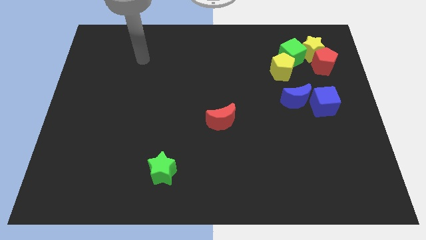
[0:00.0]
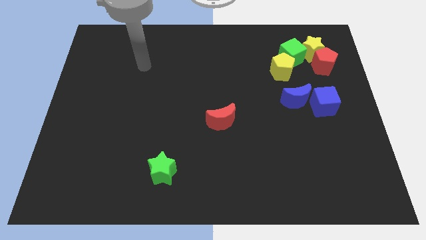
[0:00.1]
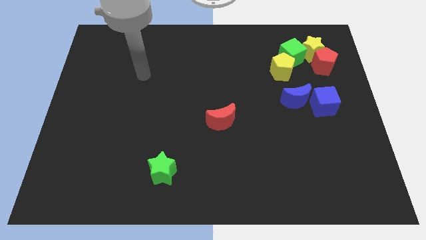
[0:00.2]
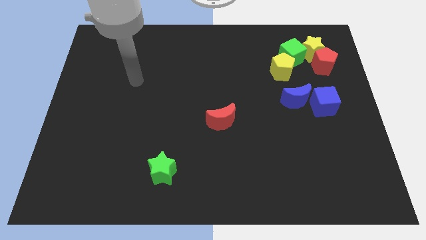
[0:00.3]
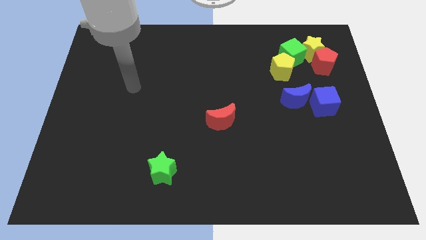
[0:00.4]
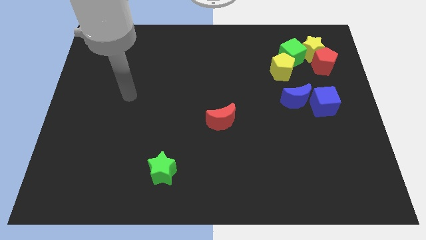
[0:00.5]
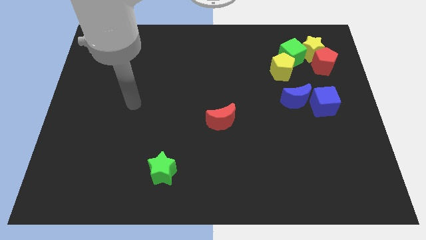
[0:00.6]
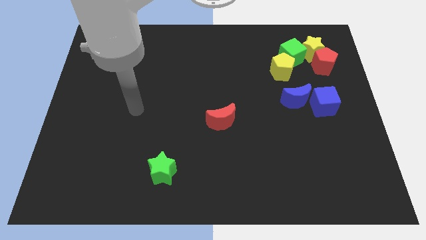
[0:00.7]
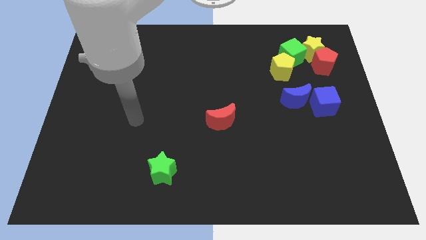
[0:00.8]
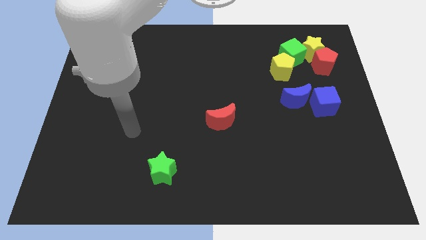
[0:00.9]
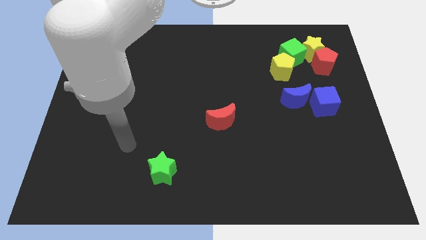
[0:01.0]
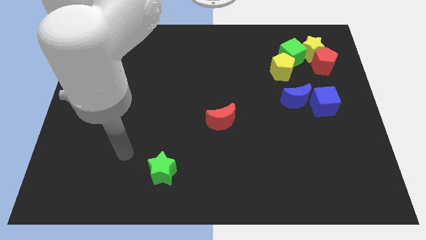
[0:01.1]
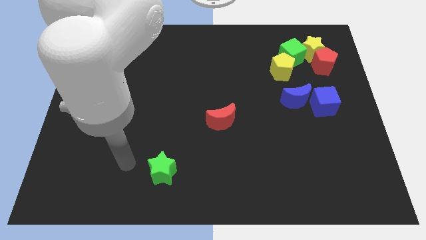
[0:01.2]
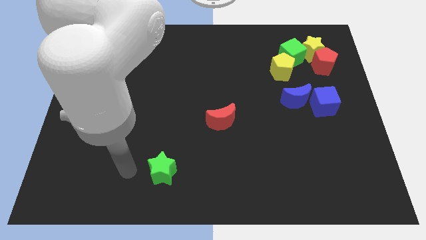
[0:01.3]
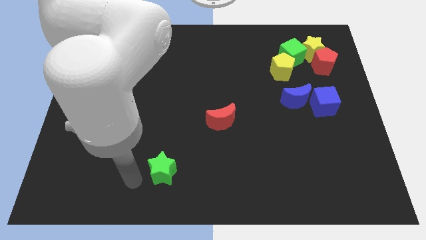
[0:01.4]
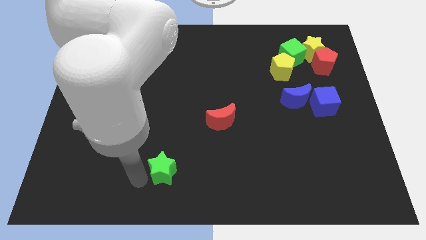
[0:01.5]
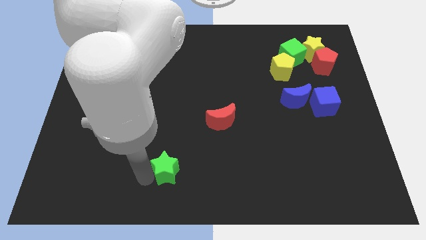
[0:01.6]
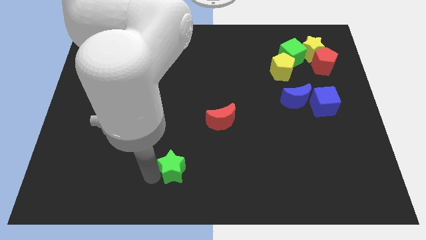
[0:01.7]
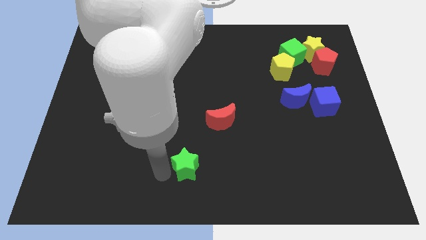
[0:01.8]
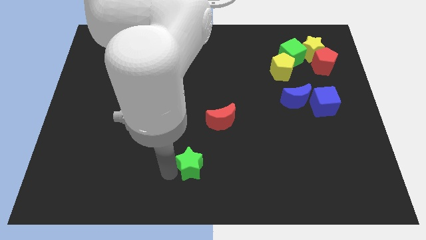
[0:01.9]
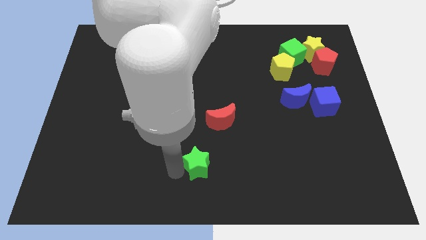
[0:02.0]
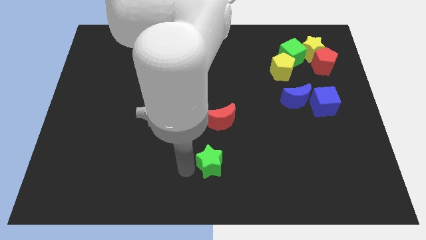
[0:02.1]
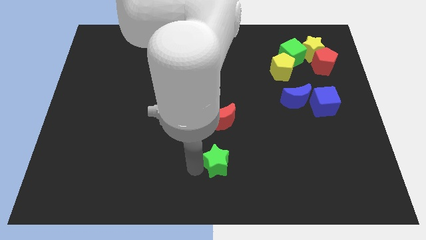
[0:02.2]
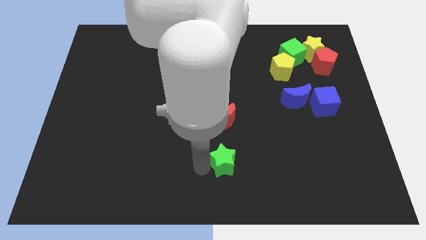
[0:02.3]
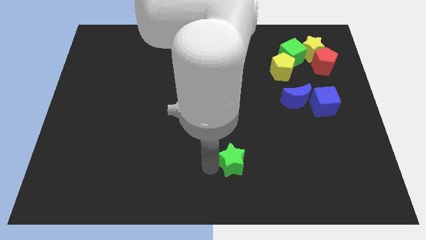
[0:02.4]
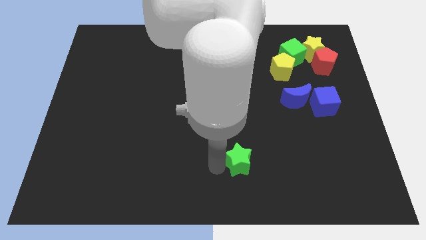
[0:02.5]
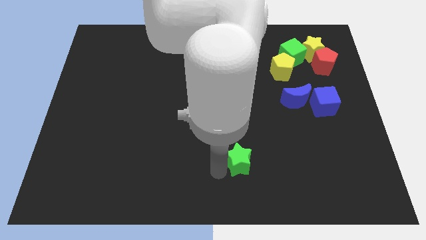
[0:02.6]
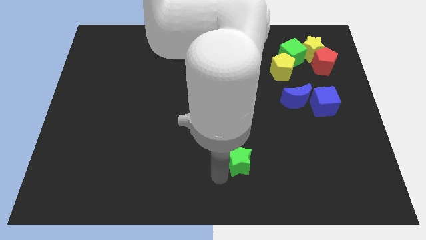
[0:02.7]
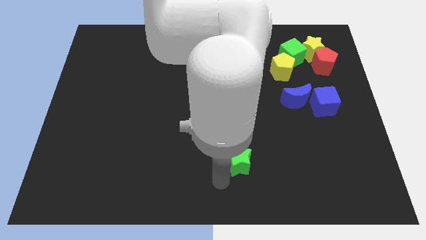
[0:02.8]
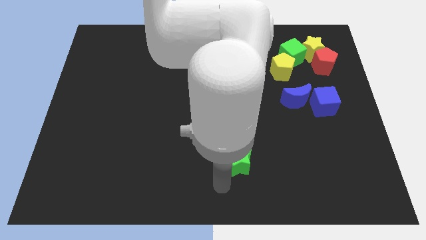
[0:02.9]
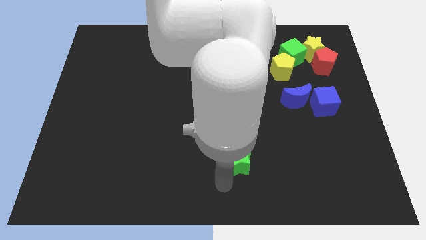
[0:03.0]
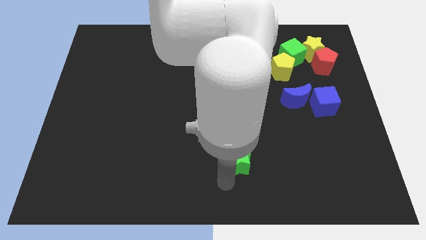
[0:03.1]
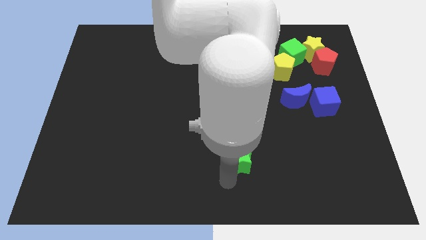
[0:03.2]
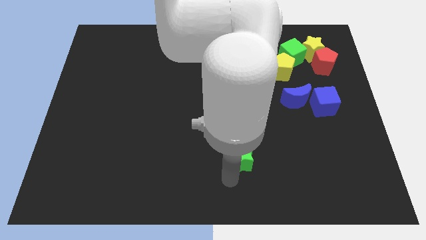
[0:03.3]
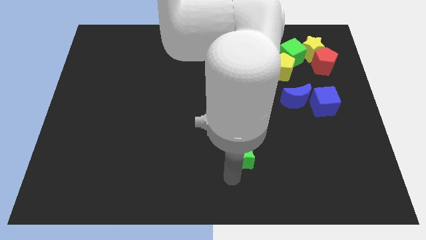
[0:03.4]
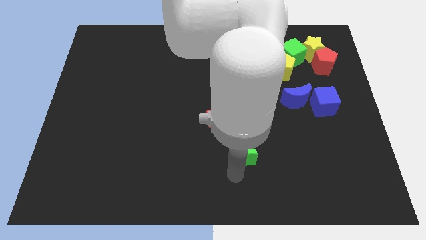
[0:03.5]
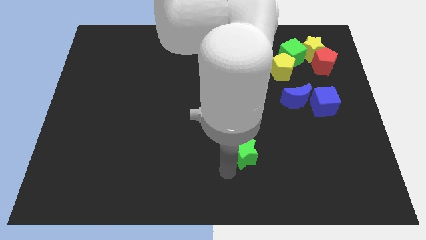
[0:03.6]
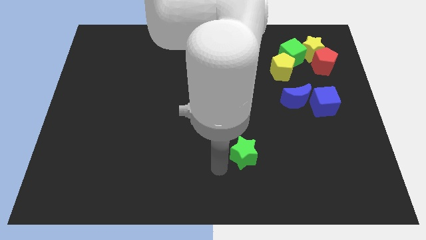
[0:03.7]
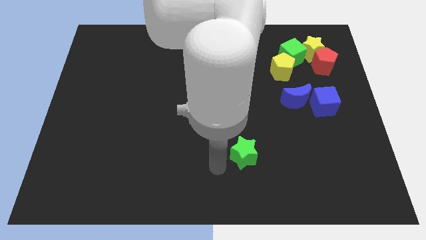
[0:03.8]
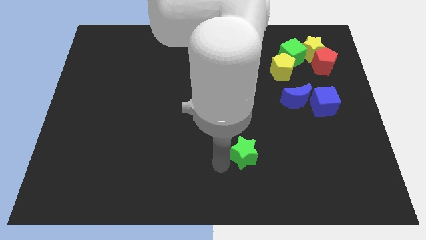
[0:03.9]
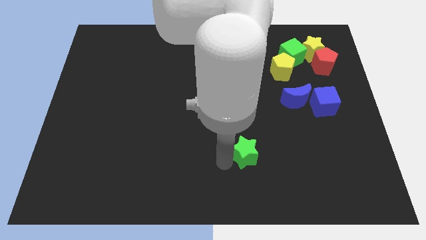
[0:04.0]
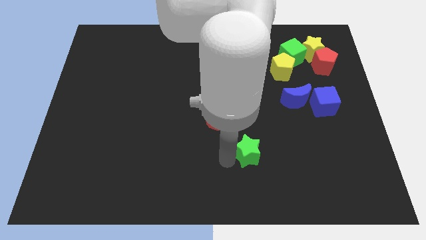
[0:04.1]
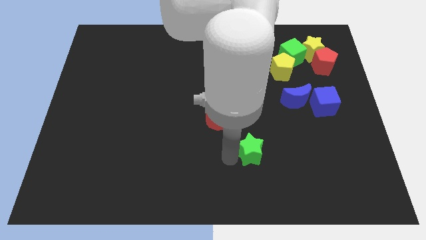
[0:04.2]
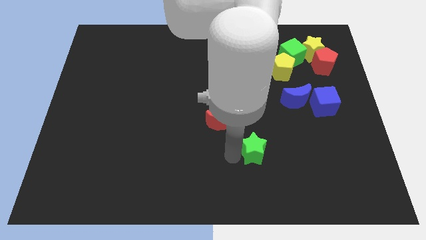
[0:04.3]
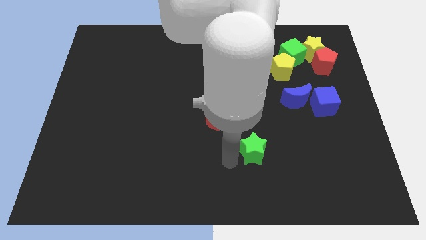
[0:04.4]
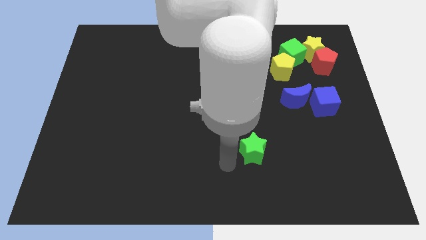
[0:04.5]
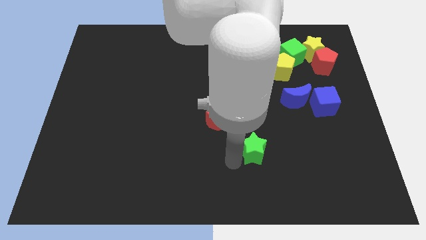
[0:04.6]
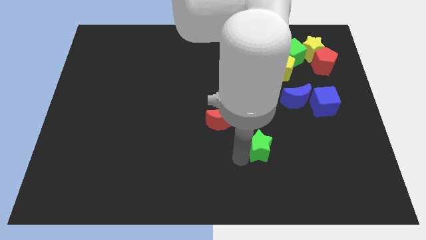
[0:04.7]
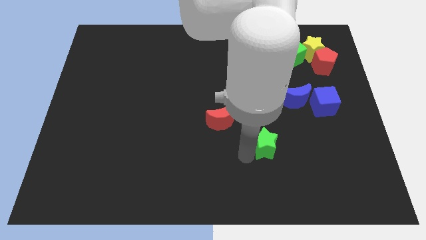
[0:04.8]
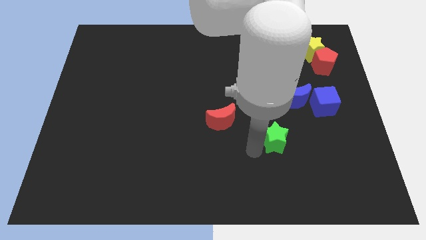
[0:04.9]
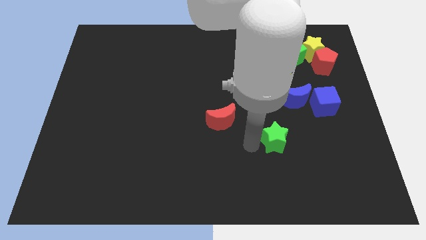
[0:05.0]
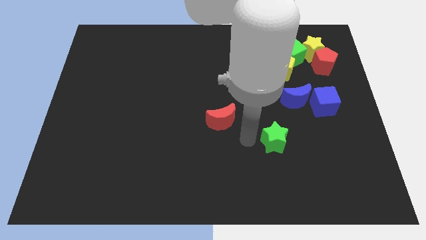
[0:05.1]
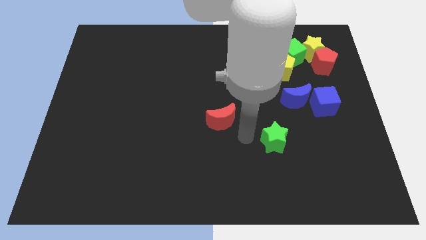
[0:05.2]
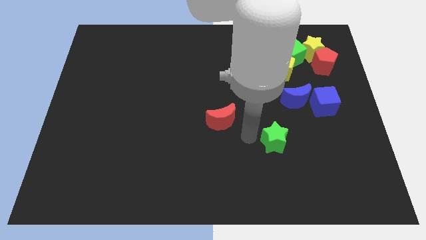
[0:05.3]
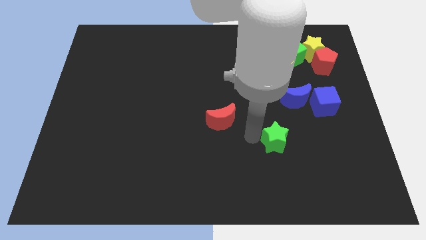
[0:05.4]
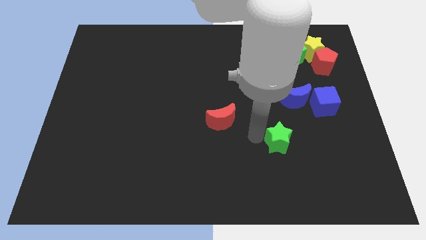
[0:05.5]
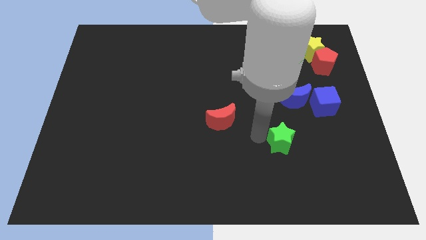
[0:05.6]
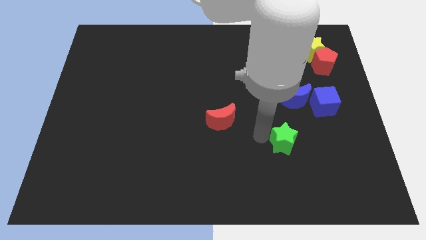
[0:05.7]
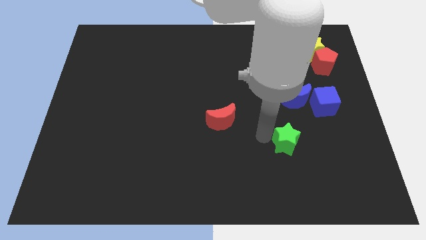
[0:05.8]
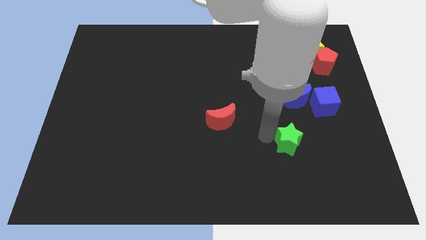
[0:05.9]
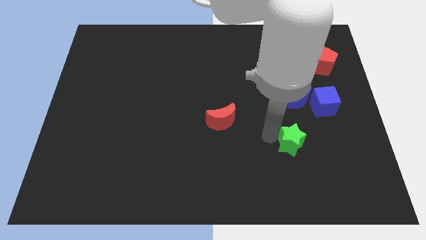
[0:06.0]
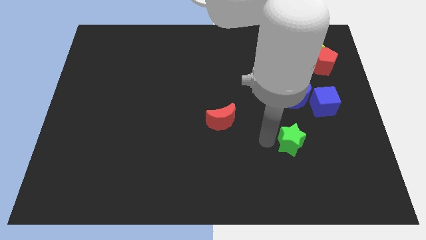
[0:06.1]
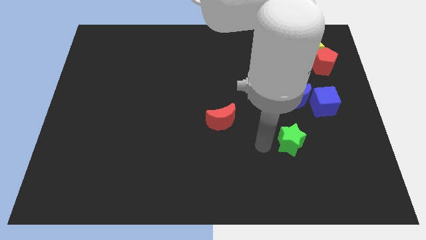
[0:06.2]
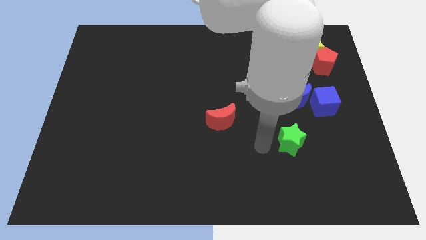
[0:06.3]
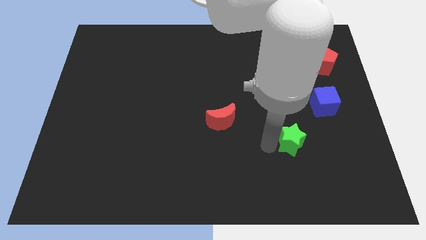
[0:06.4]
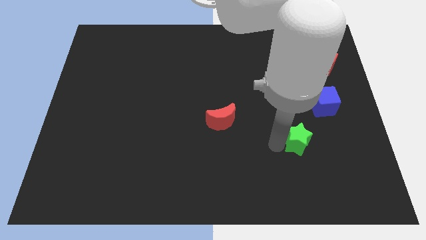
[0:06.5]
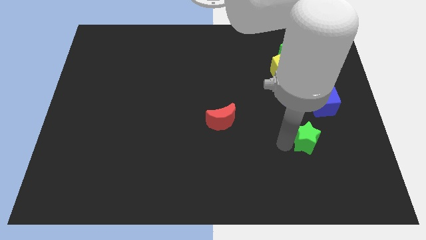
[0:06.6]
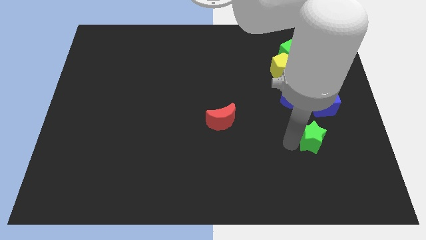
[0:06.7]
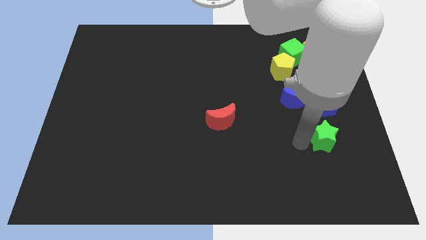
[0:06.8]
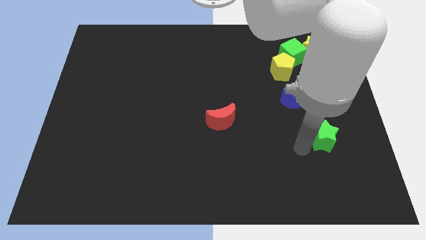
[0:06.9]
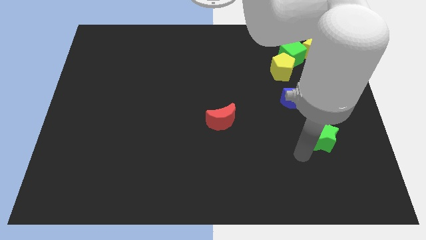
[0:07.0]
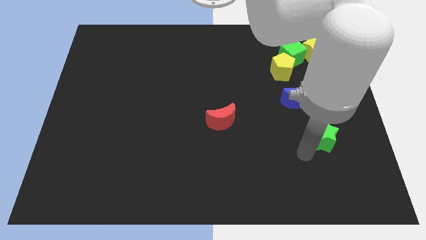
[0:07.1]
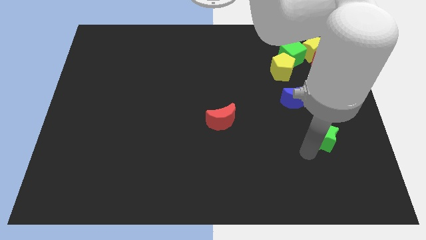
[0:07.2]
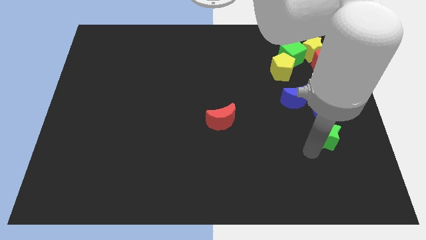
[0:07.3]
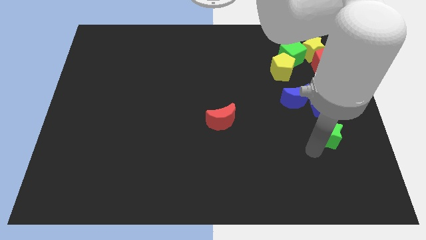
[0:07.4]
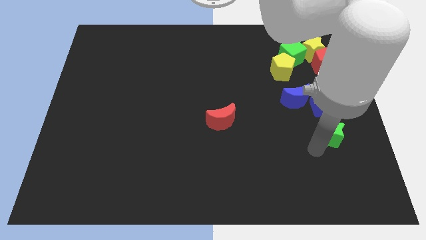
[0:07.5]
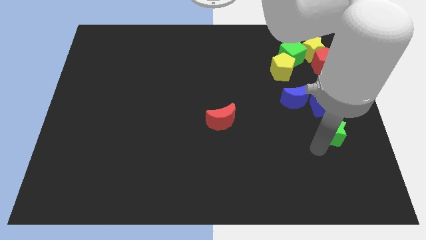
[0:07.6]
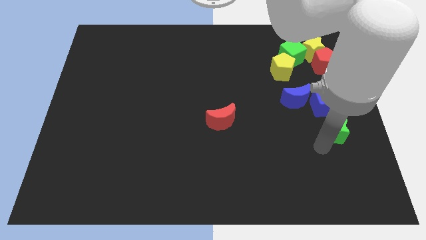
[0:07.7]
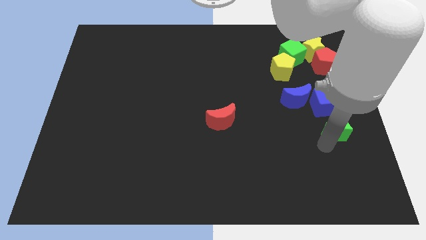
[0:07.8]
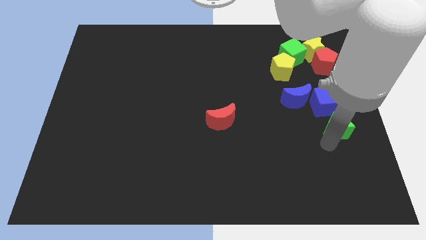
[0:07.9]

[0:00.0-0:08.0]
push the green star to the right side of the board
